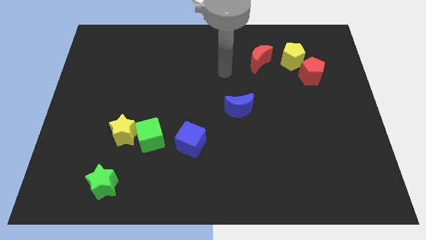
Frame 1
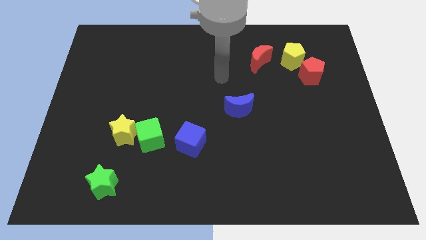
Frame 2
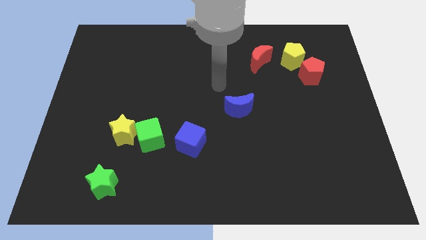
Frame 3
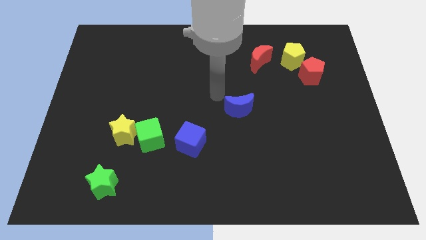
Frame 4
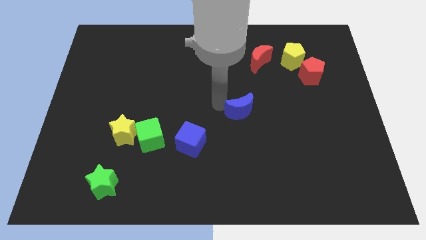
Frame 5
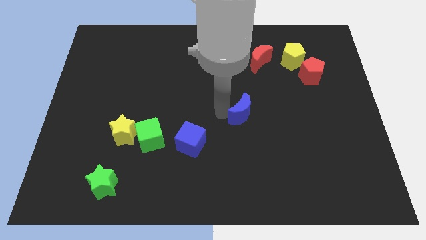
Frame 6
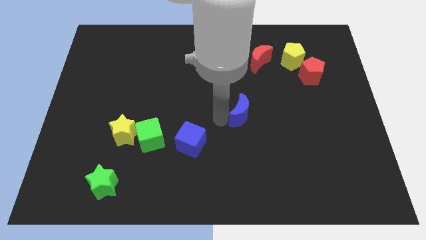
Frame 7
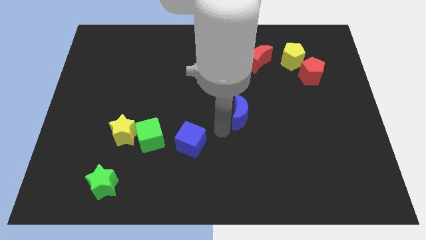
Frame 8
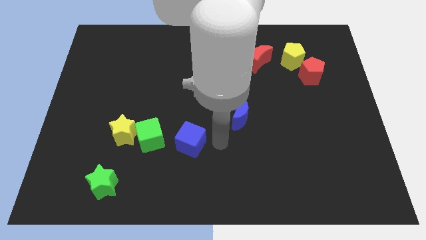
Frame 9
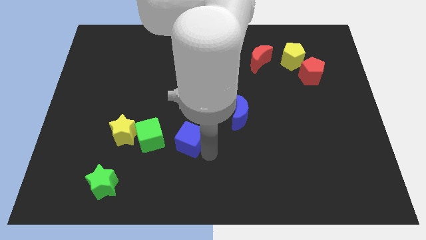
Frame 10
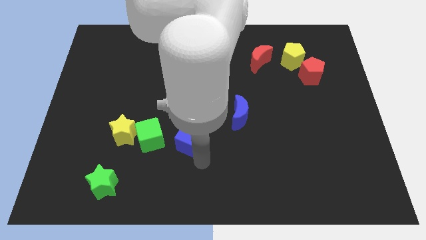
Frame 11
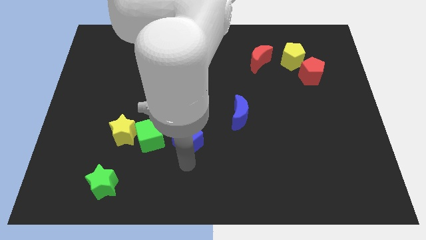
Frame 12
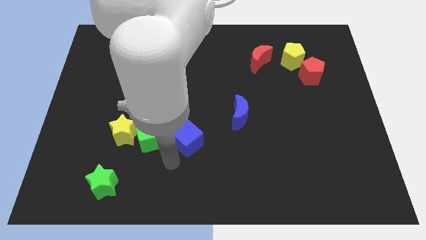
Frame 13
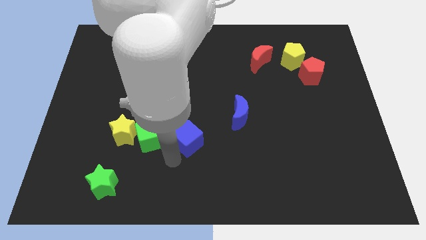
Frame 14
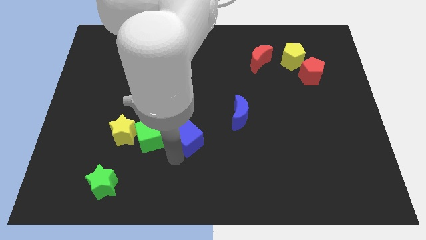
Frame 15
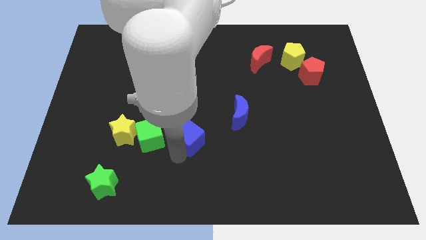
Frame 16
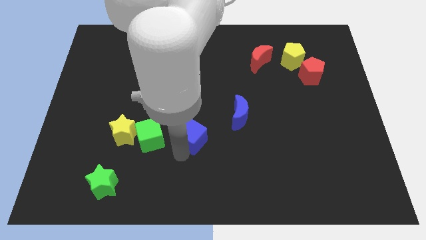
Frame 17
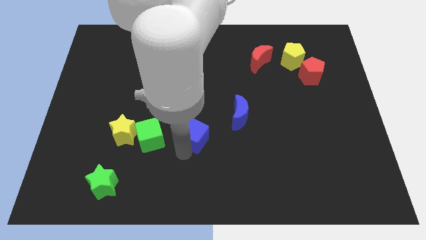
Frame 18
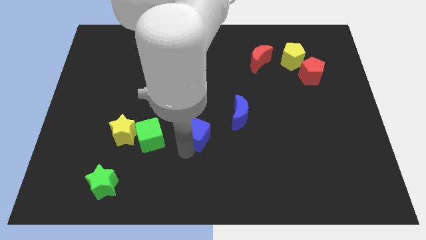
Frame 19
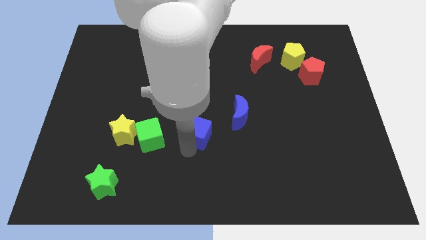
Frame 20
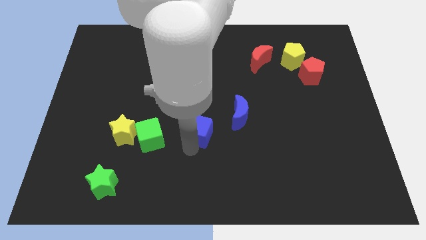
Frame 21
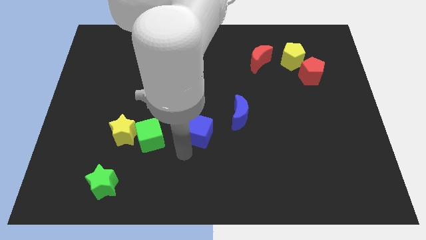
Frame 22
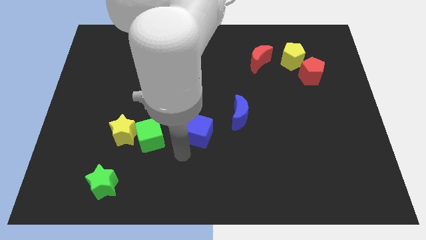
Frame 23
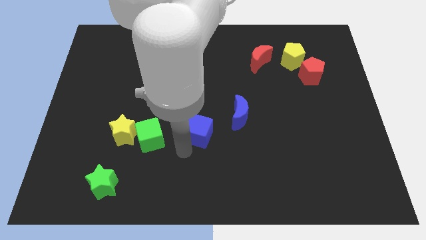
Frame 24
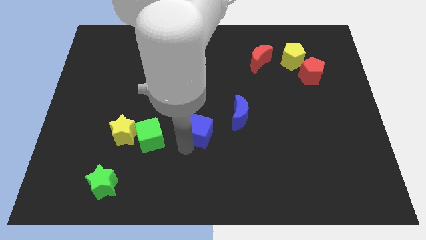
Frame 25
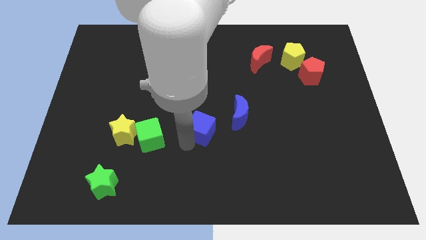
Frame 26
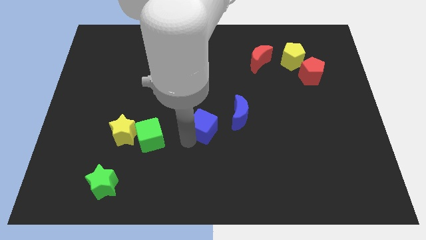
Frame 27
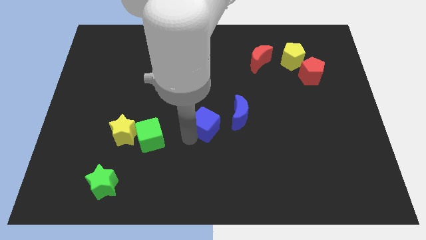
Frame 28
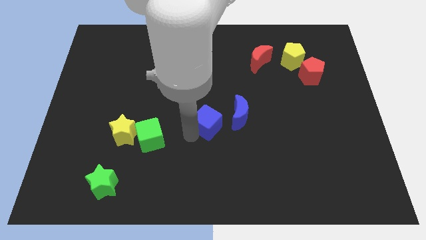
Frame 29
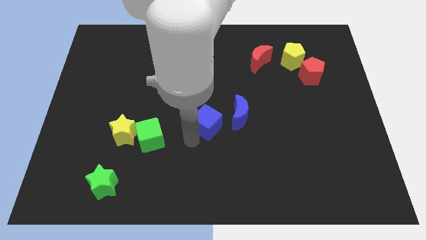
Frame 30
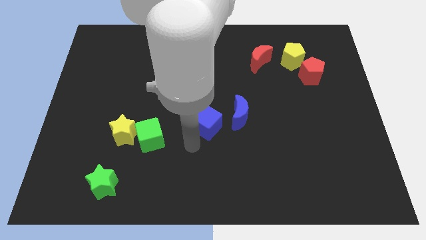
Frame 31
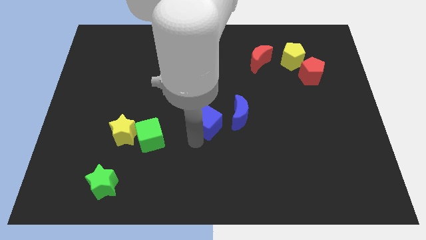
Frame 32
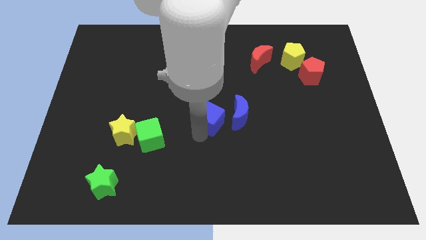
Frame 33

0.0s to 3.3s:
slightly push the blue cube upwards and to the right diagonally

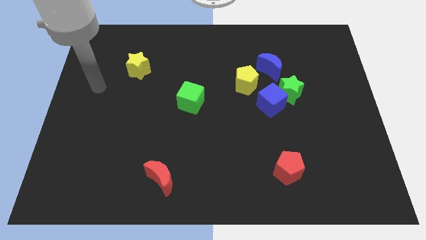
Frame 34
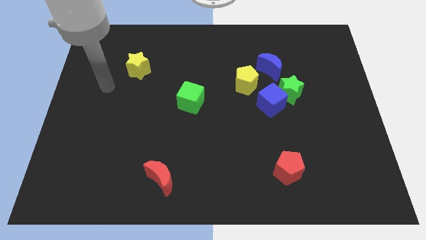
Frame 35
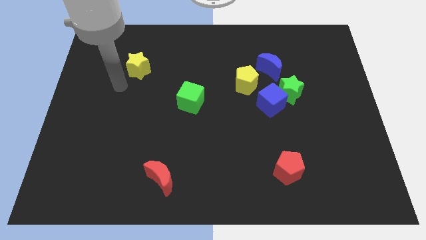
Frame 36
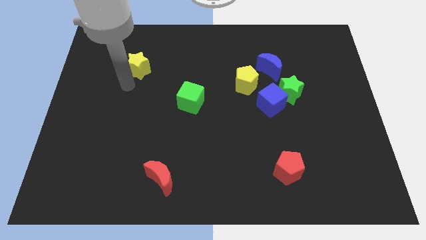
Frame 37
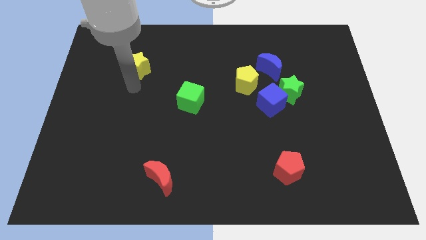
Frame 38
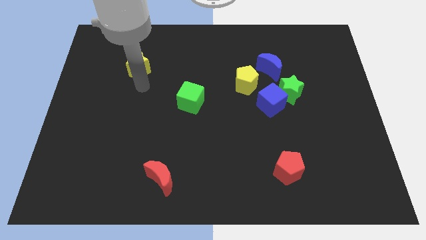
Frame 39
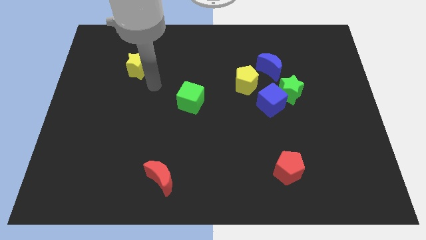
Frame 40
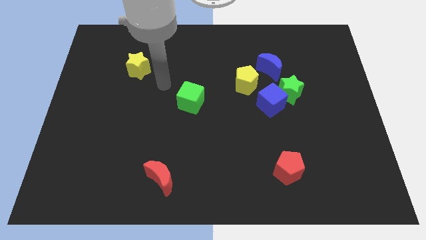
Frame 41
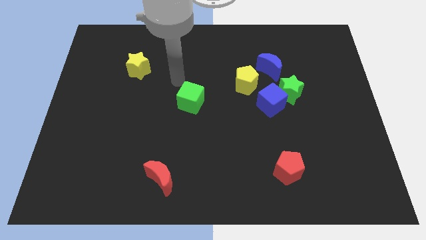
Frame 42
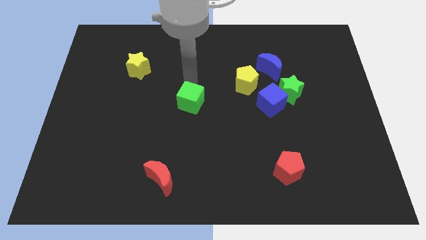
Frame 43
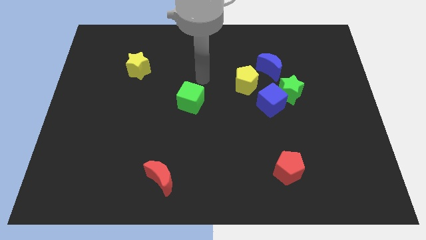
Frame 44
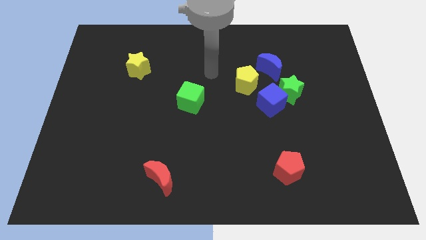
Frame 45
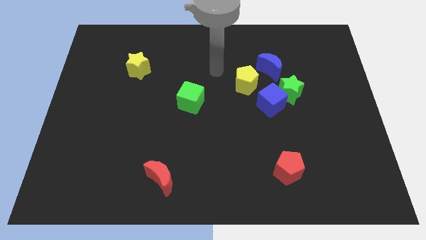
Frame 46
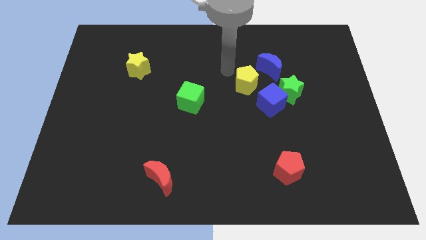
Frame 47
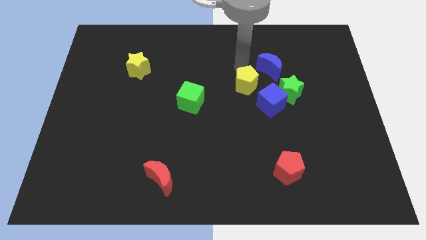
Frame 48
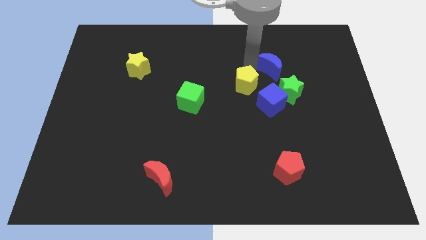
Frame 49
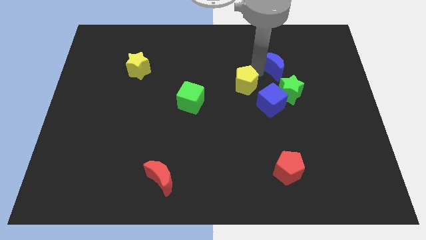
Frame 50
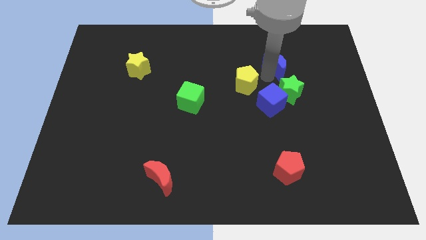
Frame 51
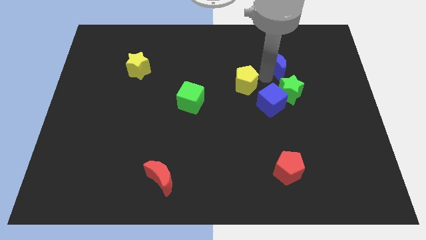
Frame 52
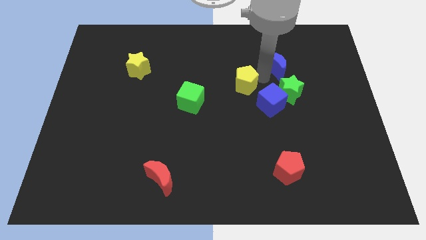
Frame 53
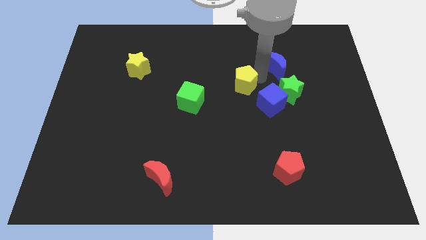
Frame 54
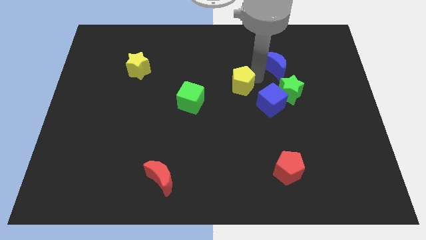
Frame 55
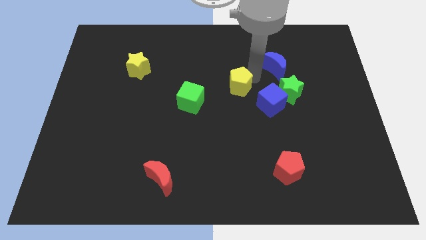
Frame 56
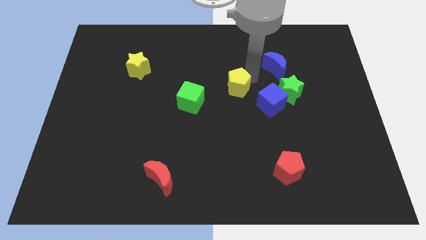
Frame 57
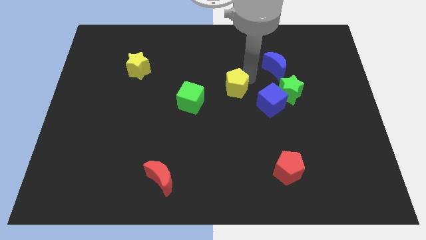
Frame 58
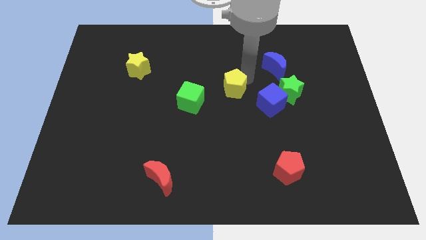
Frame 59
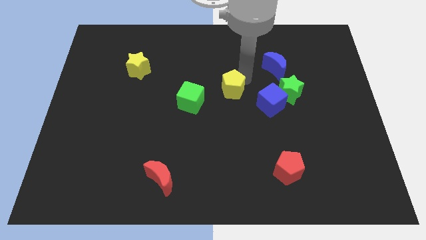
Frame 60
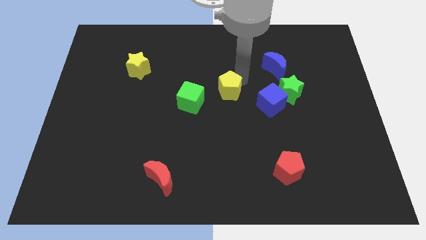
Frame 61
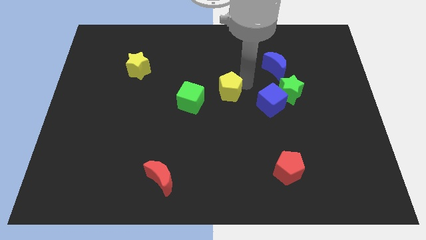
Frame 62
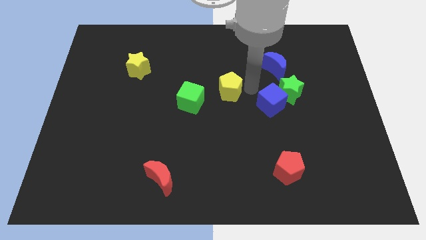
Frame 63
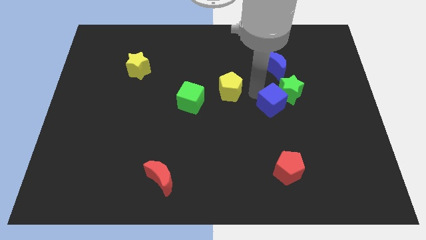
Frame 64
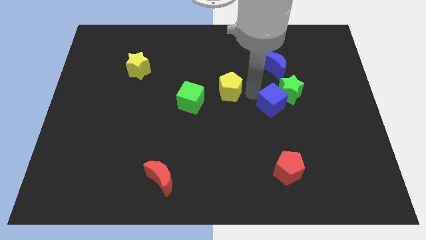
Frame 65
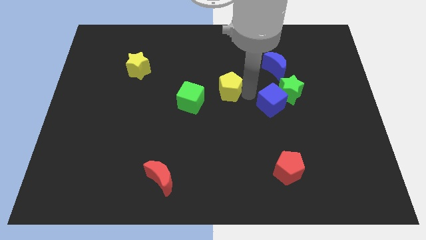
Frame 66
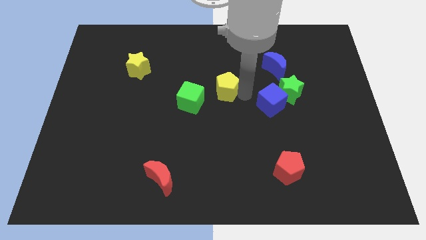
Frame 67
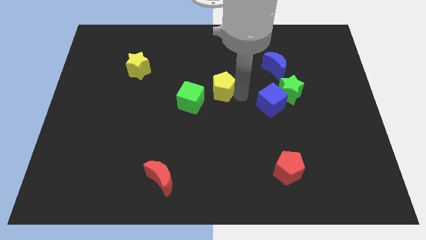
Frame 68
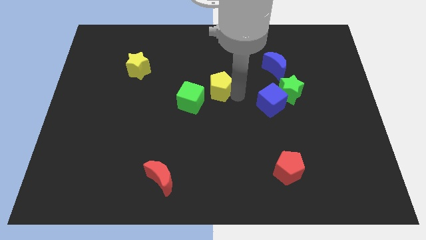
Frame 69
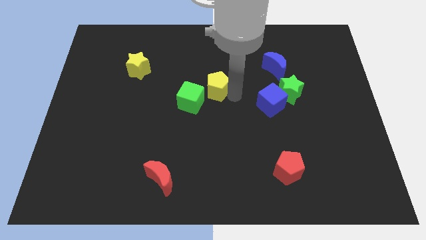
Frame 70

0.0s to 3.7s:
slide the yellow pentagon left a bit

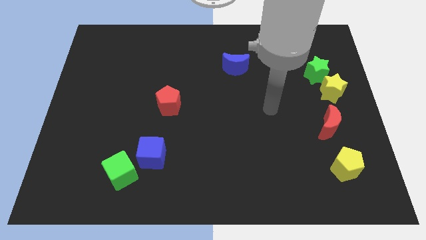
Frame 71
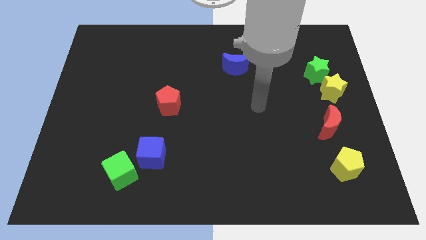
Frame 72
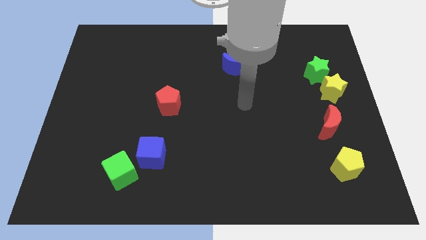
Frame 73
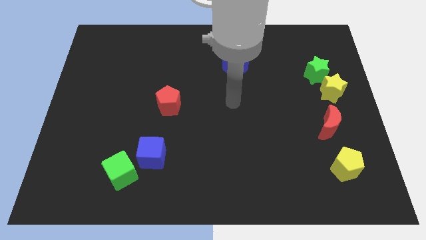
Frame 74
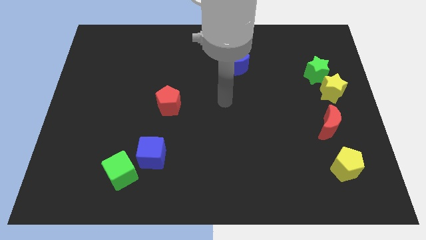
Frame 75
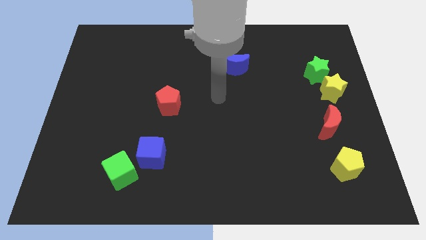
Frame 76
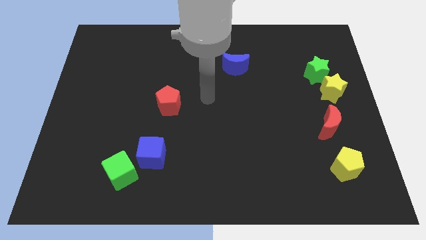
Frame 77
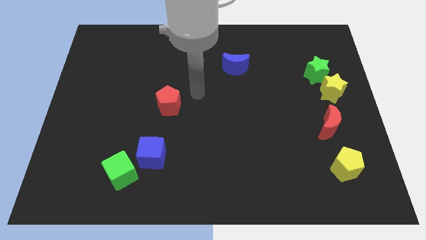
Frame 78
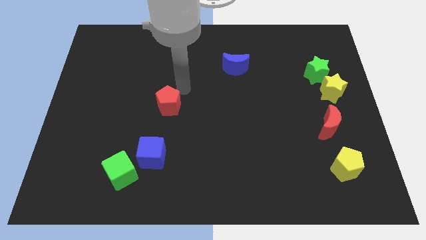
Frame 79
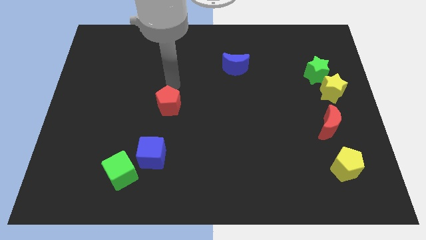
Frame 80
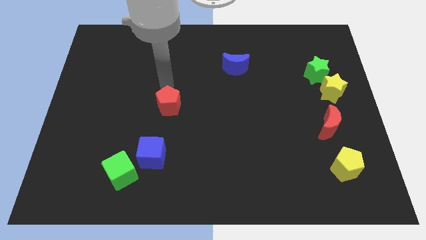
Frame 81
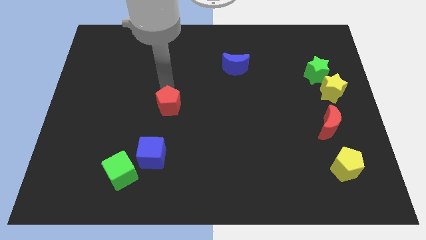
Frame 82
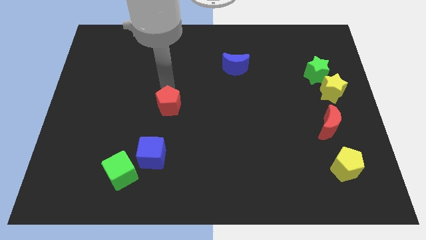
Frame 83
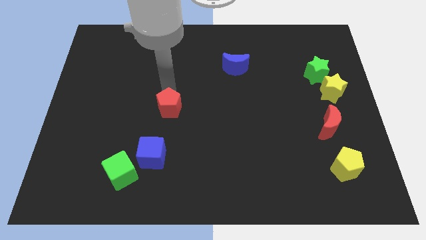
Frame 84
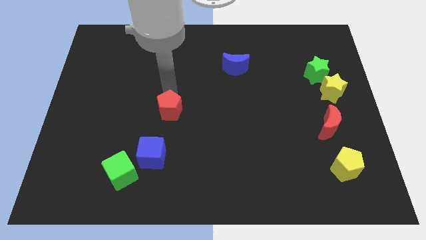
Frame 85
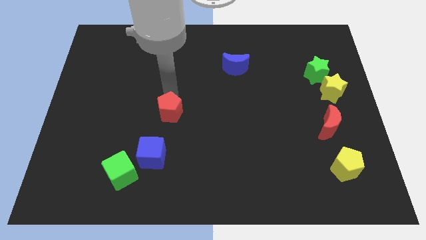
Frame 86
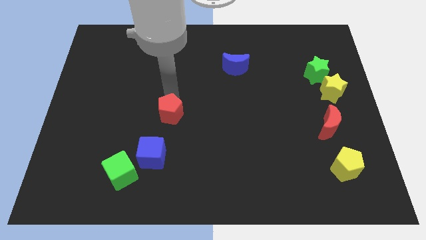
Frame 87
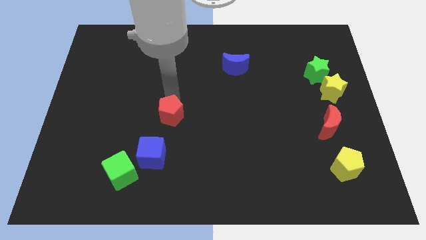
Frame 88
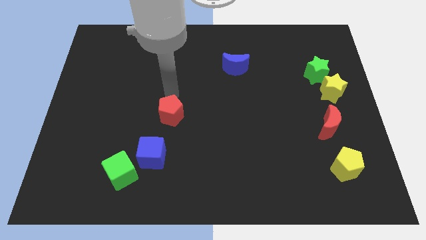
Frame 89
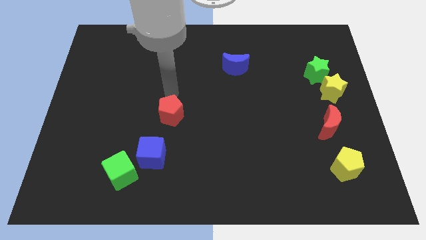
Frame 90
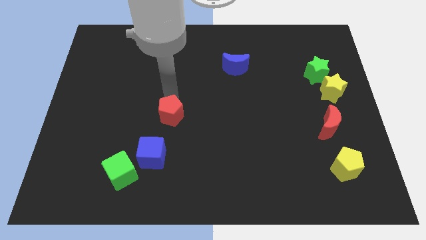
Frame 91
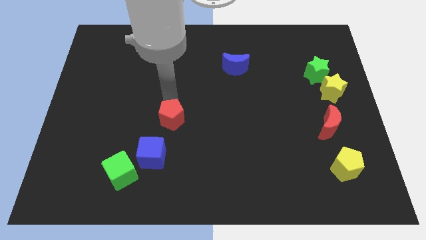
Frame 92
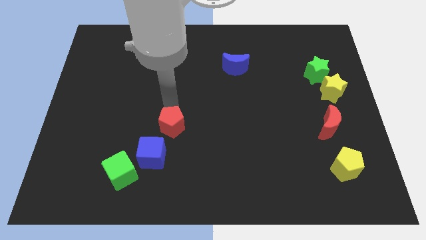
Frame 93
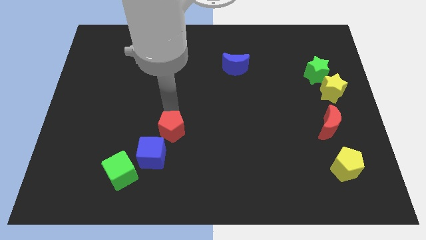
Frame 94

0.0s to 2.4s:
slightly move the red pentagon downwards
